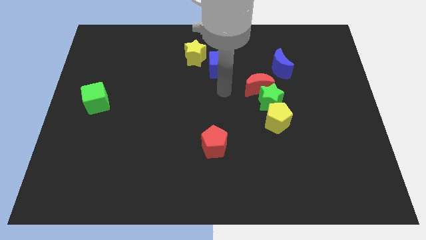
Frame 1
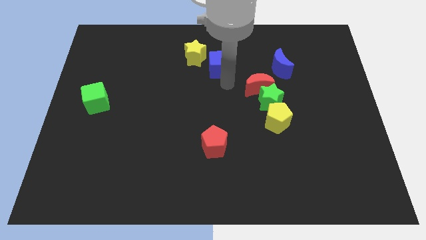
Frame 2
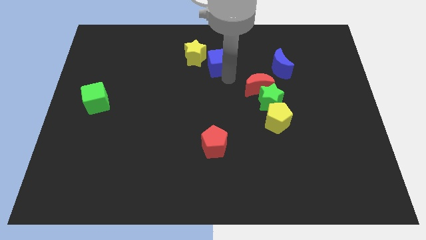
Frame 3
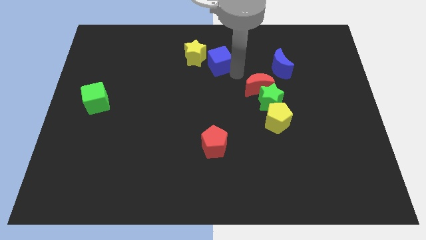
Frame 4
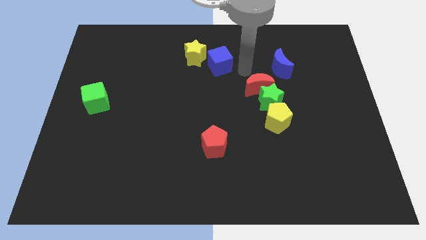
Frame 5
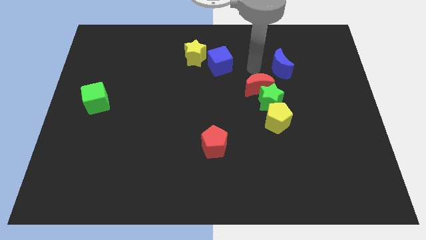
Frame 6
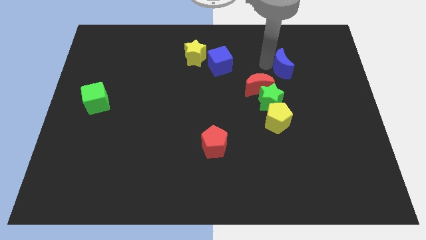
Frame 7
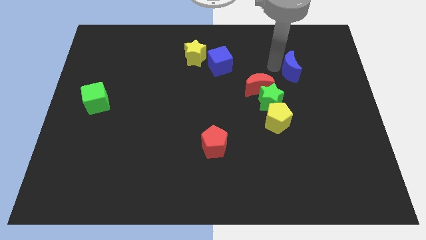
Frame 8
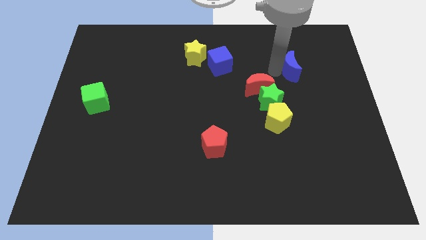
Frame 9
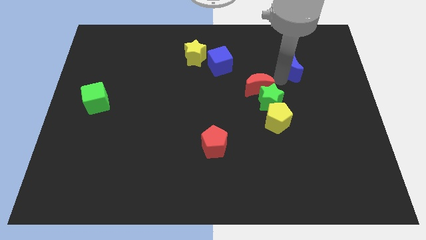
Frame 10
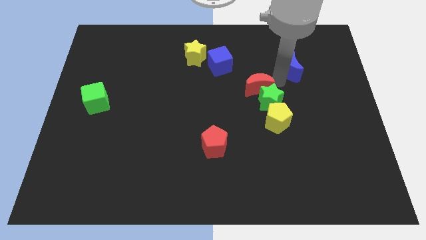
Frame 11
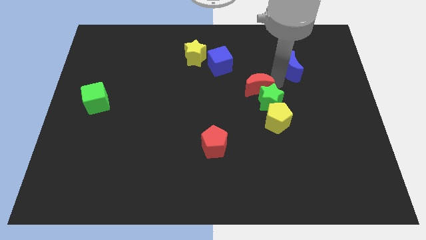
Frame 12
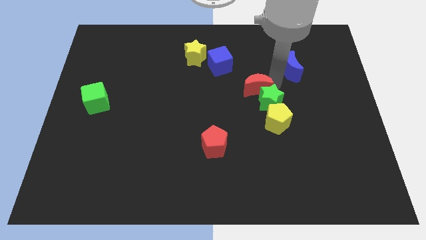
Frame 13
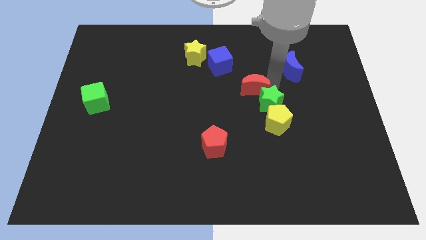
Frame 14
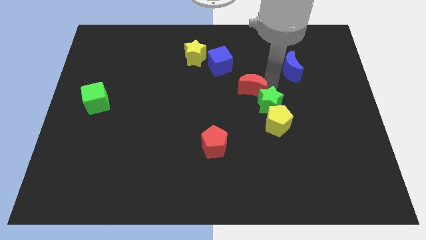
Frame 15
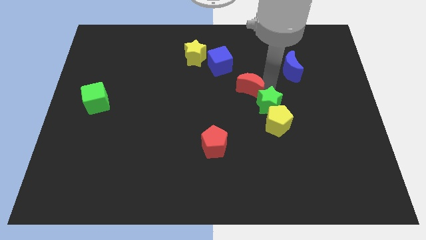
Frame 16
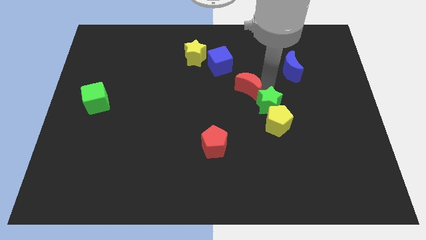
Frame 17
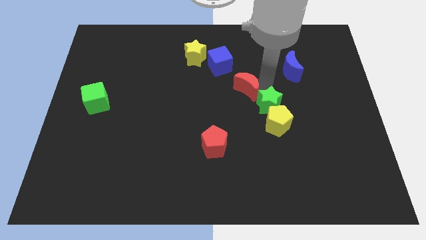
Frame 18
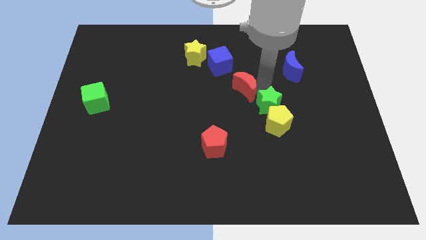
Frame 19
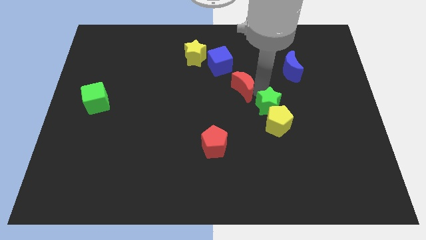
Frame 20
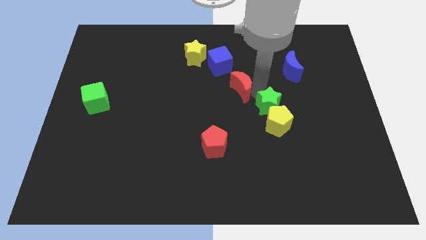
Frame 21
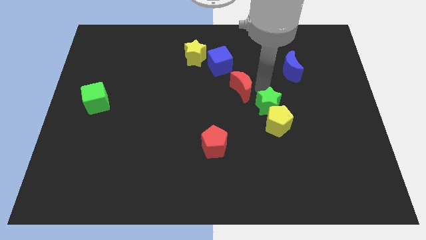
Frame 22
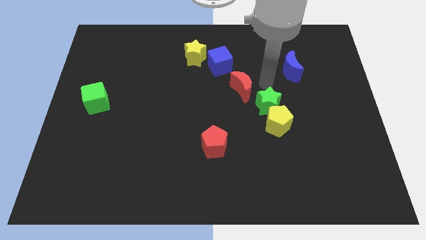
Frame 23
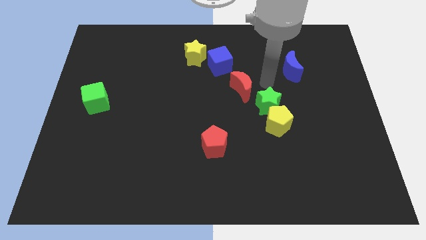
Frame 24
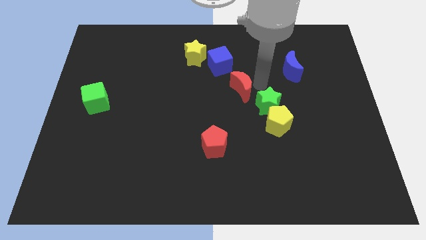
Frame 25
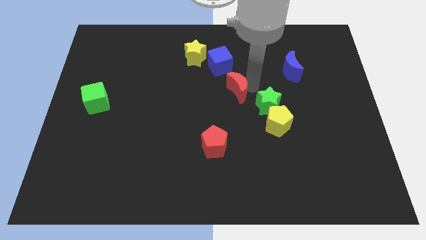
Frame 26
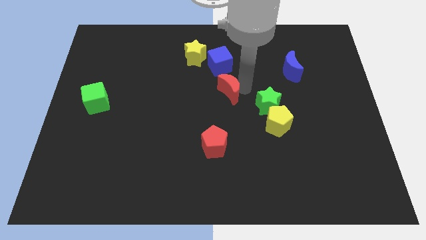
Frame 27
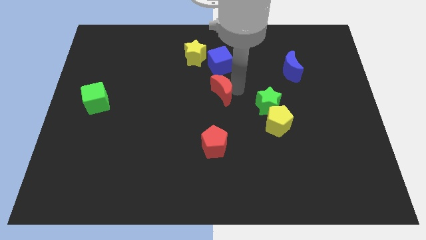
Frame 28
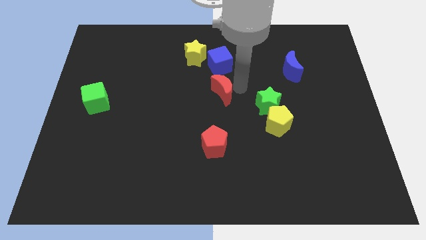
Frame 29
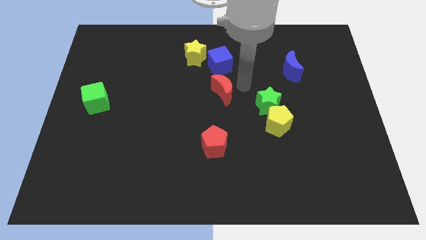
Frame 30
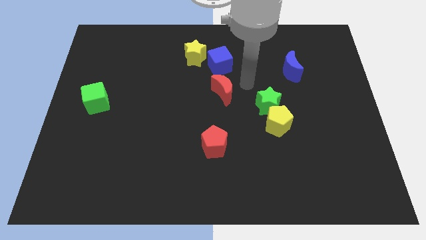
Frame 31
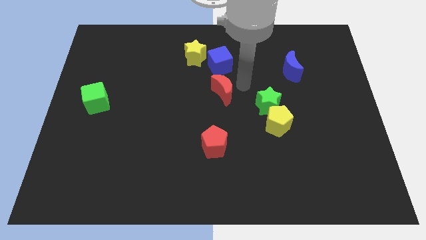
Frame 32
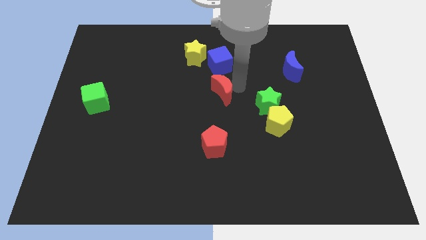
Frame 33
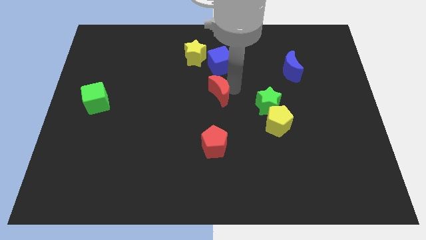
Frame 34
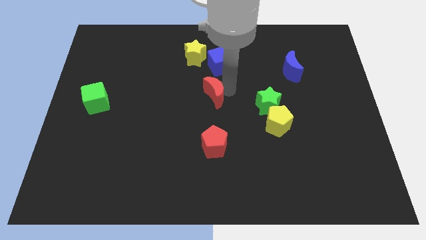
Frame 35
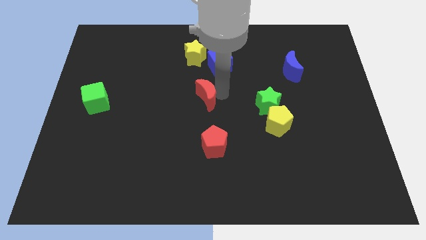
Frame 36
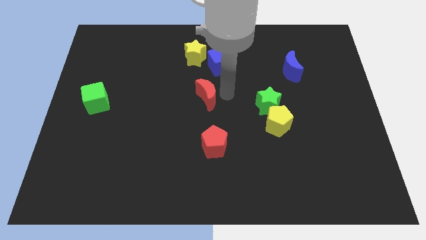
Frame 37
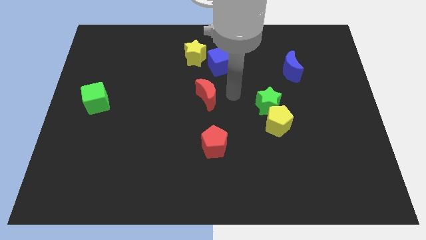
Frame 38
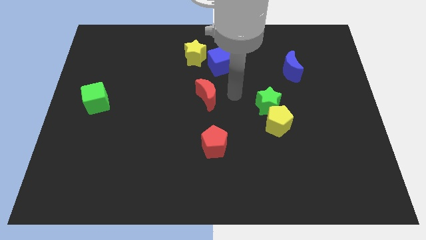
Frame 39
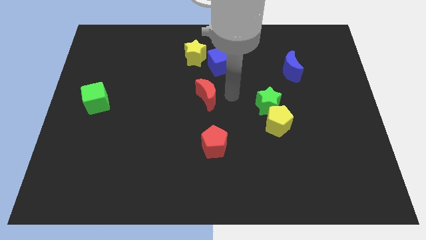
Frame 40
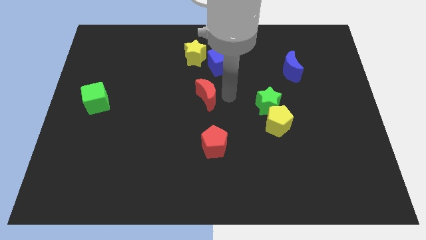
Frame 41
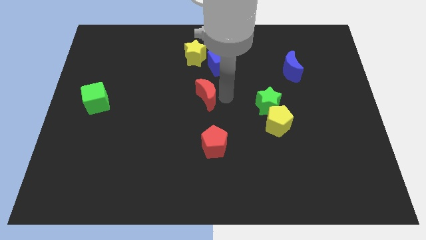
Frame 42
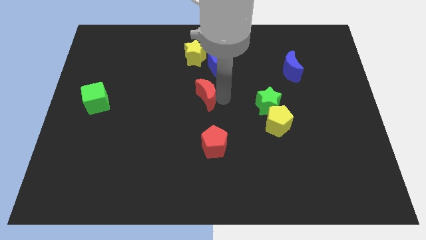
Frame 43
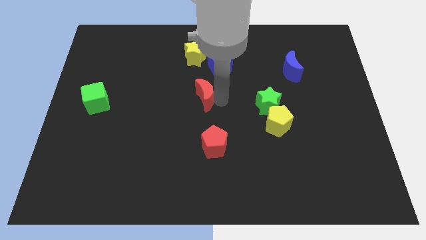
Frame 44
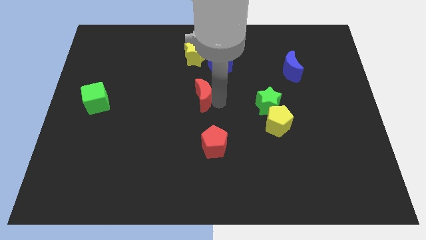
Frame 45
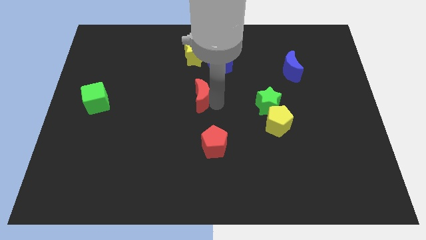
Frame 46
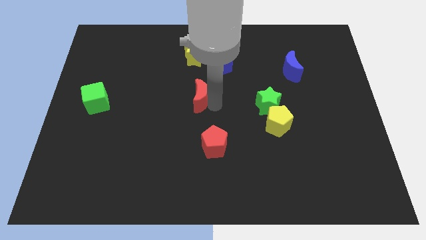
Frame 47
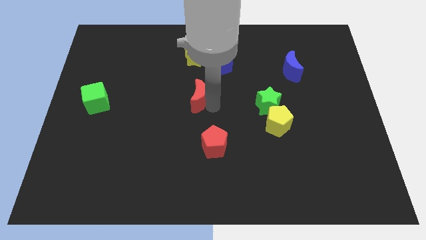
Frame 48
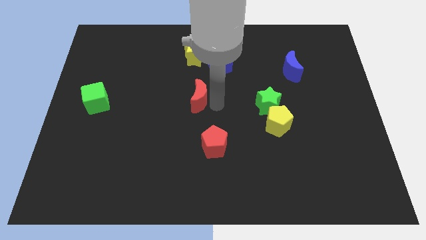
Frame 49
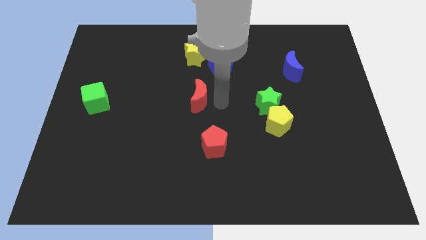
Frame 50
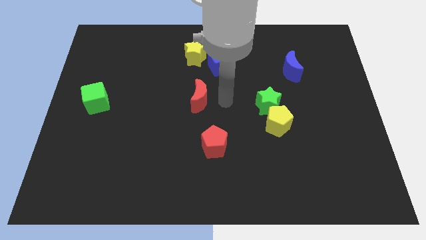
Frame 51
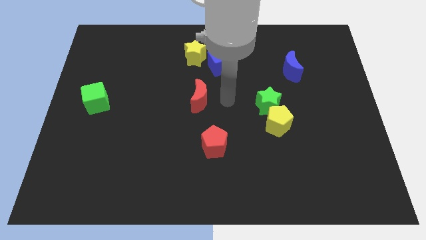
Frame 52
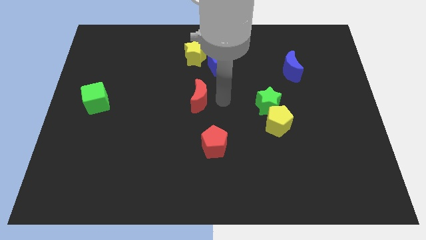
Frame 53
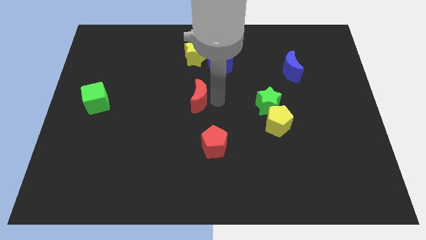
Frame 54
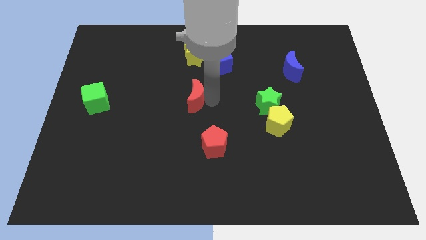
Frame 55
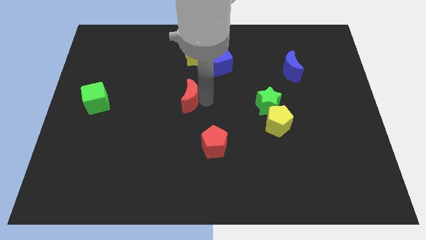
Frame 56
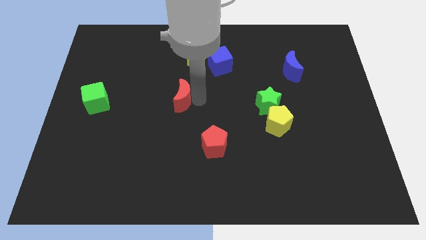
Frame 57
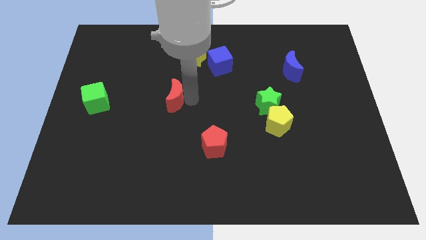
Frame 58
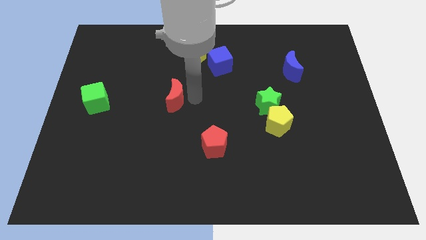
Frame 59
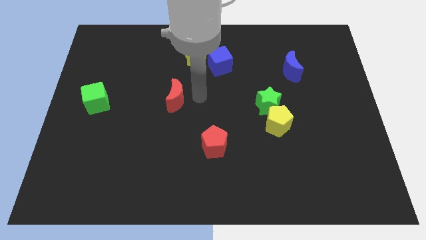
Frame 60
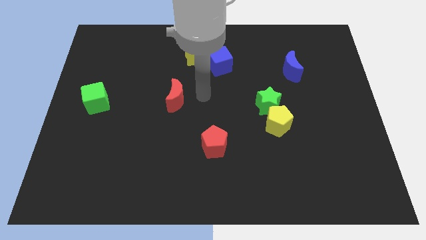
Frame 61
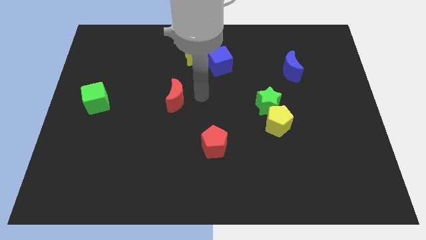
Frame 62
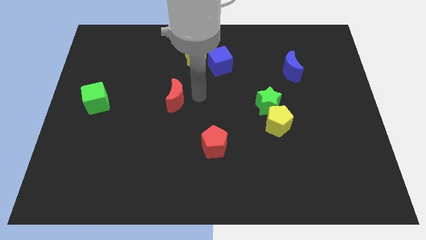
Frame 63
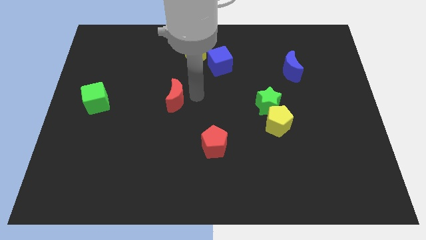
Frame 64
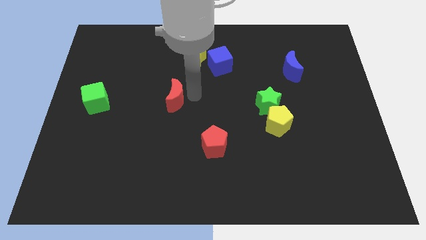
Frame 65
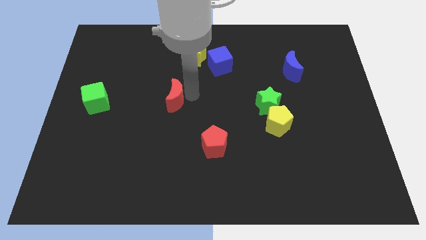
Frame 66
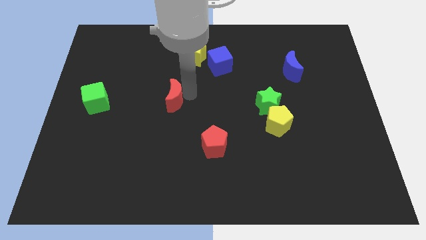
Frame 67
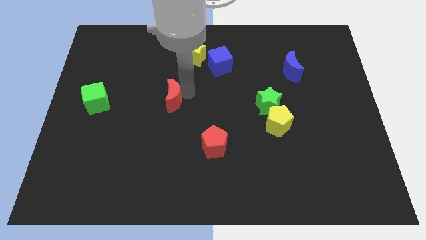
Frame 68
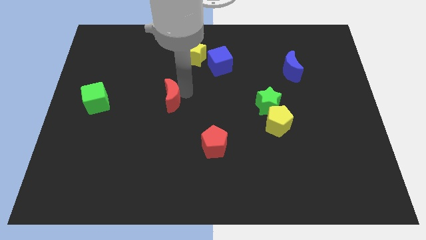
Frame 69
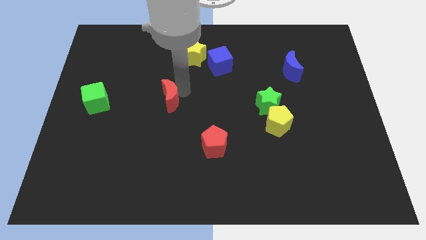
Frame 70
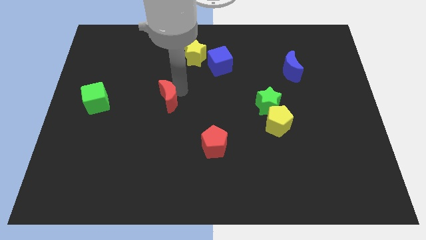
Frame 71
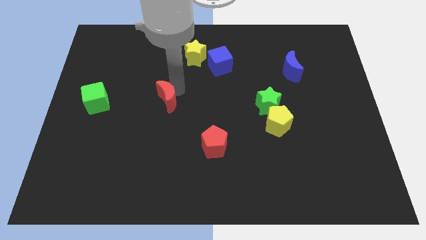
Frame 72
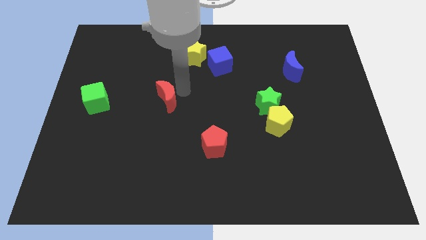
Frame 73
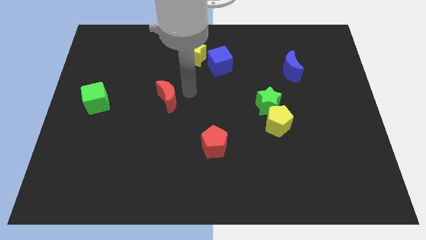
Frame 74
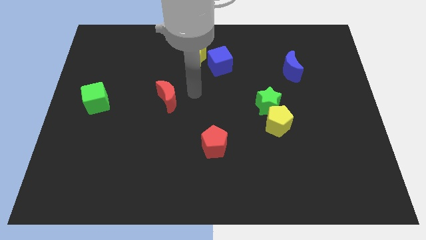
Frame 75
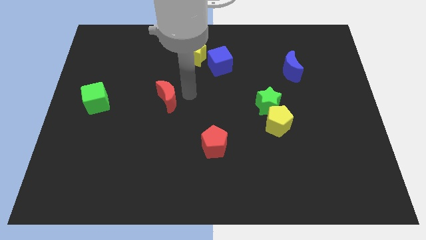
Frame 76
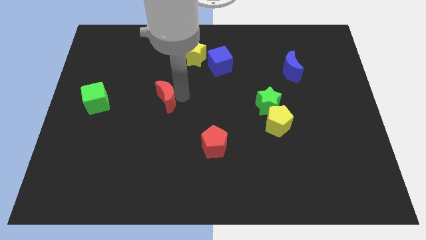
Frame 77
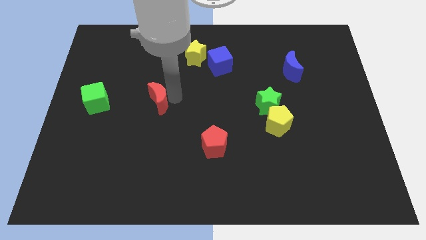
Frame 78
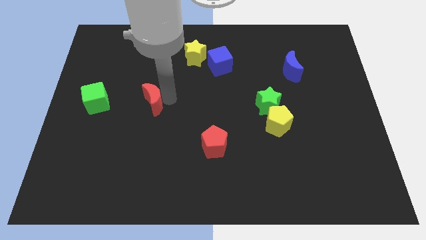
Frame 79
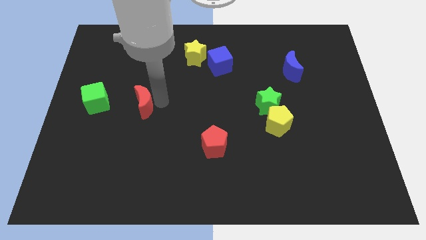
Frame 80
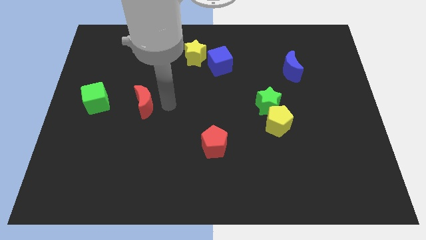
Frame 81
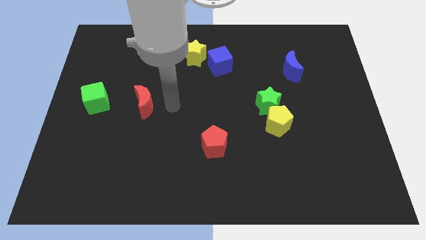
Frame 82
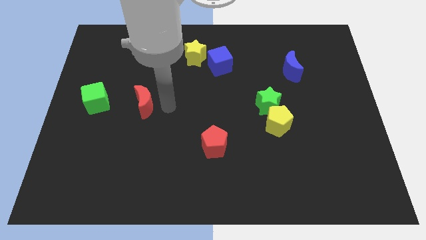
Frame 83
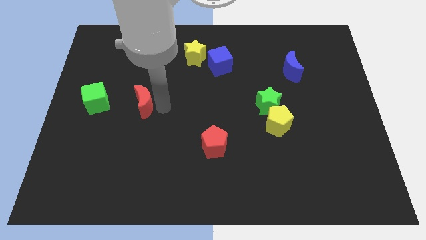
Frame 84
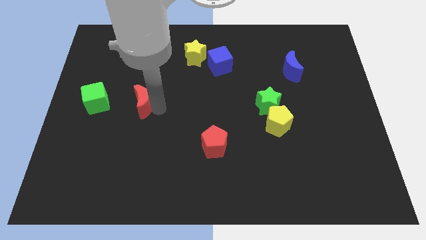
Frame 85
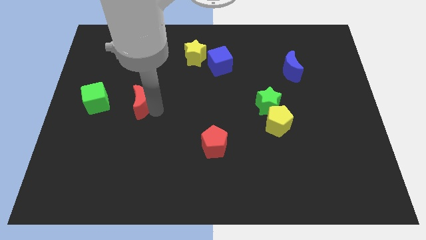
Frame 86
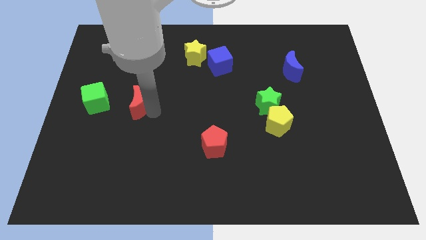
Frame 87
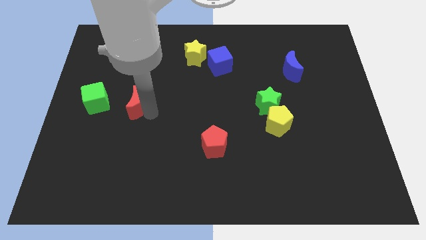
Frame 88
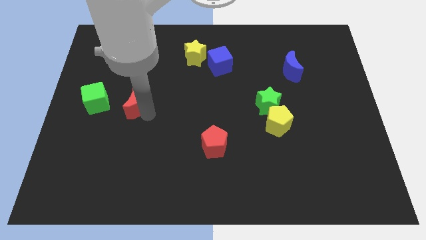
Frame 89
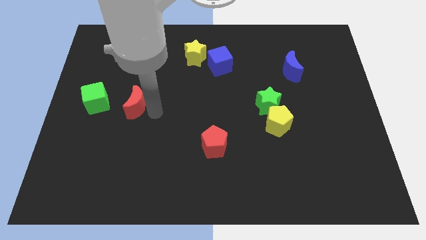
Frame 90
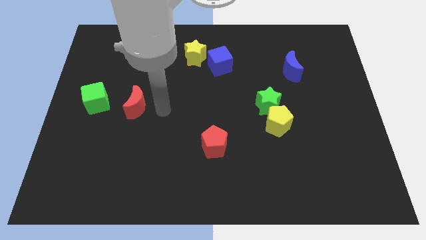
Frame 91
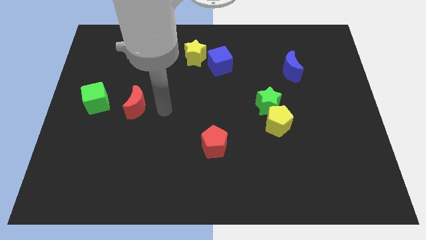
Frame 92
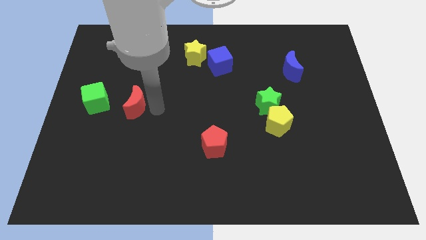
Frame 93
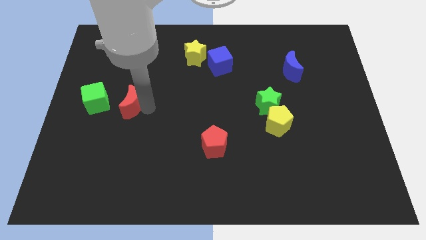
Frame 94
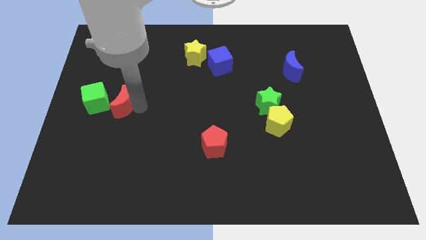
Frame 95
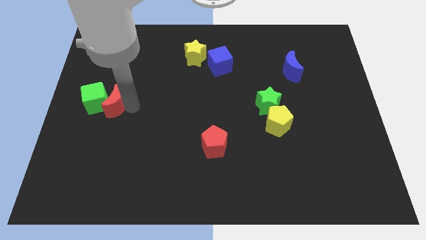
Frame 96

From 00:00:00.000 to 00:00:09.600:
move the red moon to the green cube
